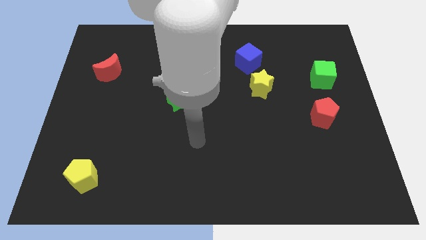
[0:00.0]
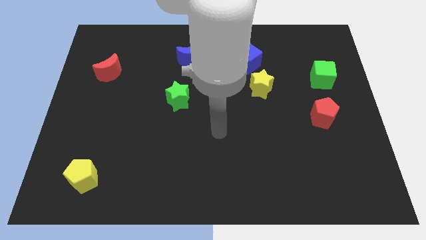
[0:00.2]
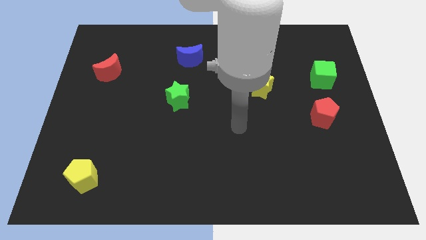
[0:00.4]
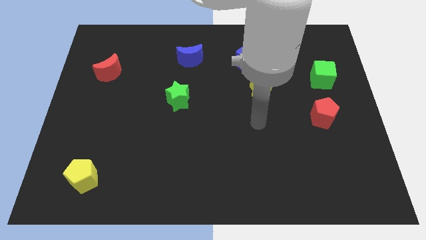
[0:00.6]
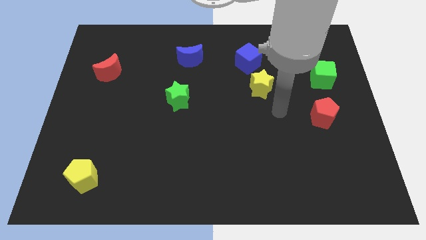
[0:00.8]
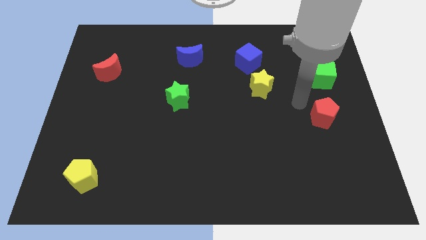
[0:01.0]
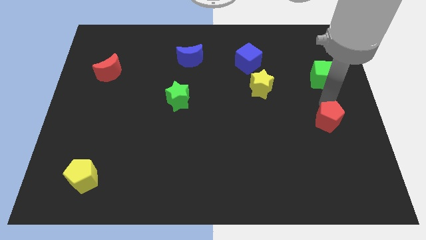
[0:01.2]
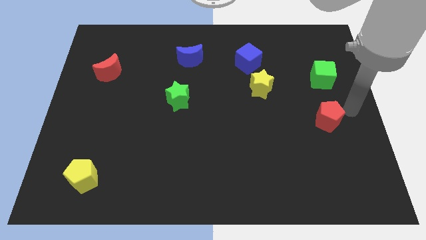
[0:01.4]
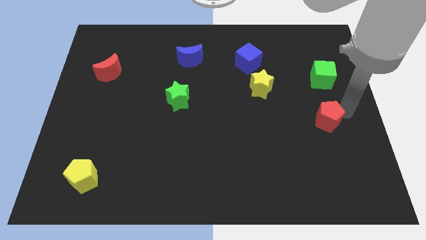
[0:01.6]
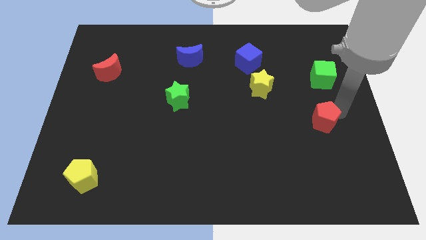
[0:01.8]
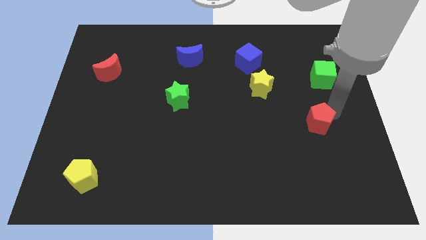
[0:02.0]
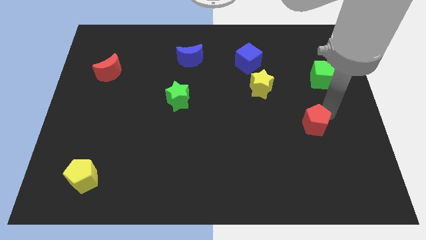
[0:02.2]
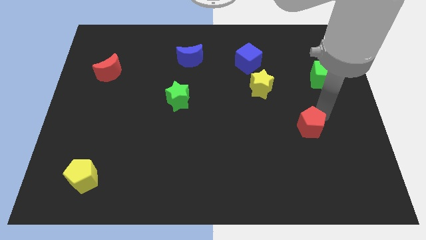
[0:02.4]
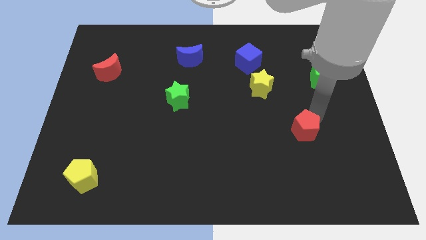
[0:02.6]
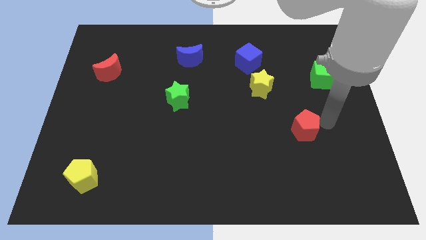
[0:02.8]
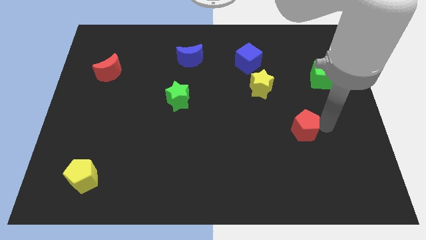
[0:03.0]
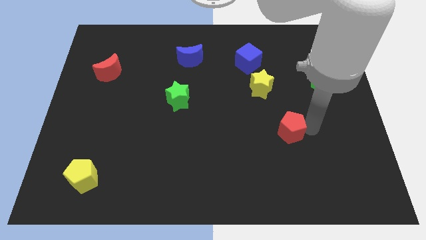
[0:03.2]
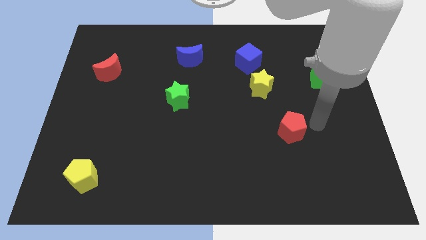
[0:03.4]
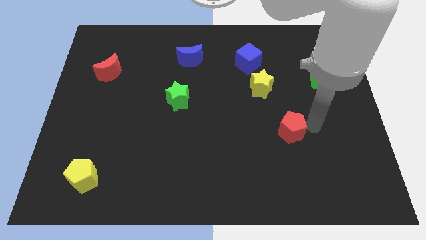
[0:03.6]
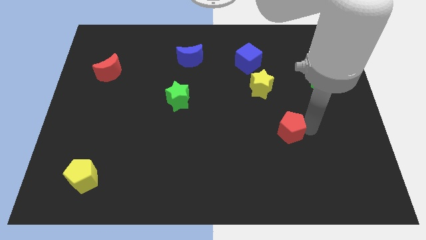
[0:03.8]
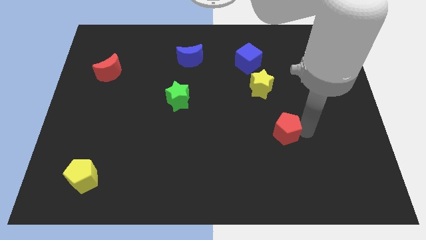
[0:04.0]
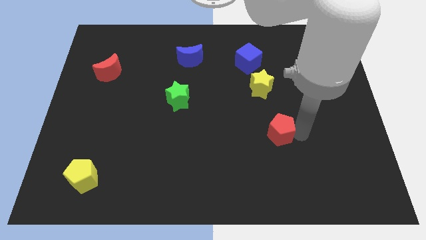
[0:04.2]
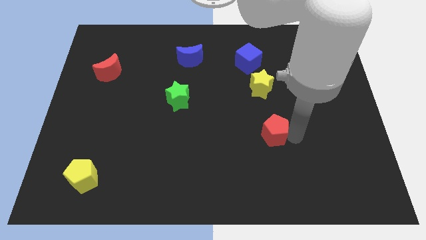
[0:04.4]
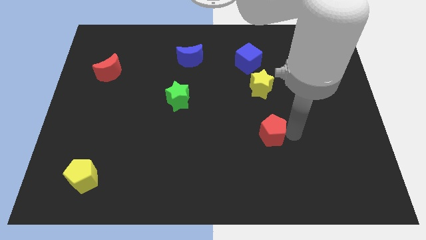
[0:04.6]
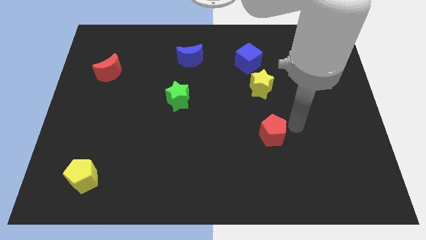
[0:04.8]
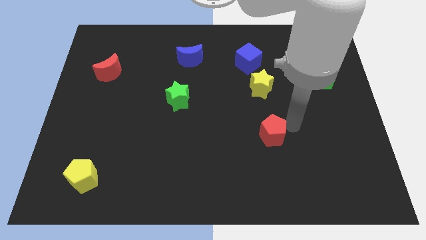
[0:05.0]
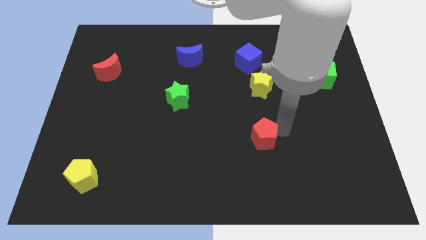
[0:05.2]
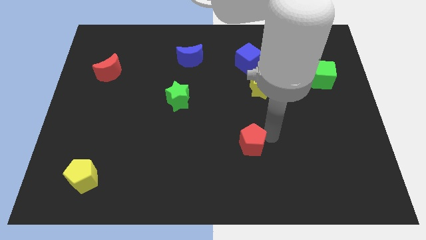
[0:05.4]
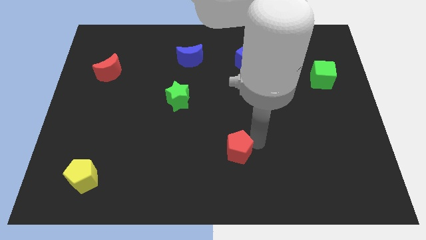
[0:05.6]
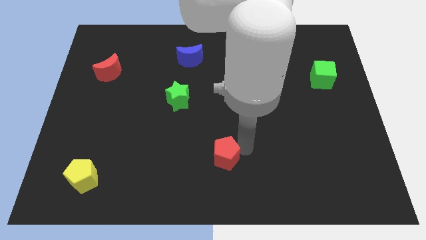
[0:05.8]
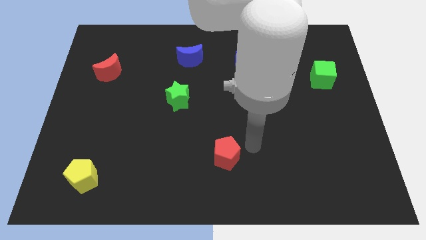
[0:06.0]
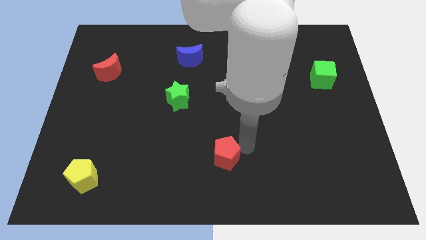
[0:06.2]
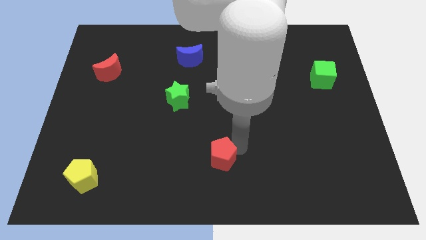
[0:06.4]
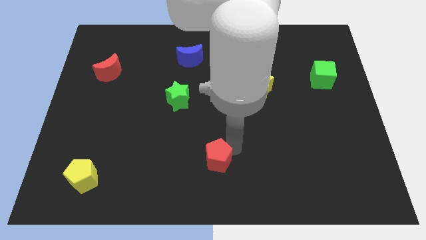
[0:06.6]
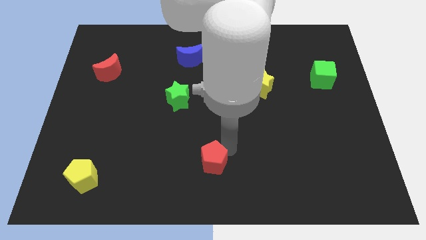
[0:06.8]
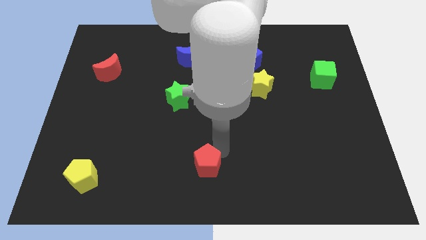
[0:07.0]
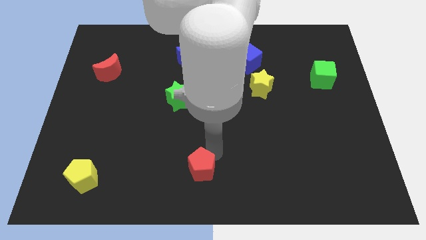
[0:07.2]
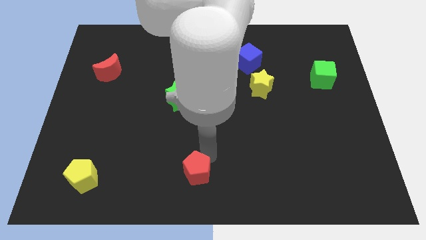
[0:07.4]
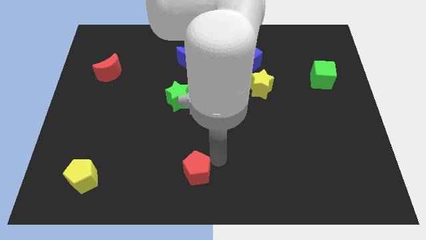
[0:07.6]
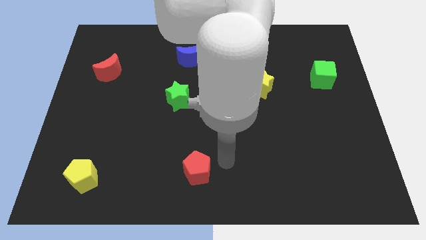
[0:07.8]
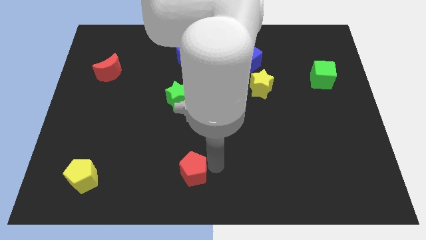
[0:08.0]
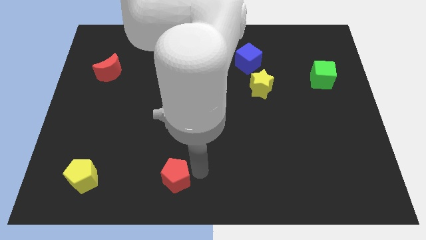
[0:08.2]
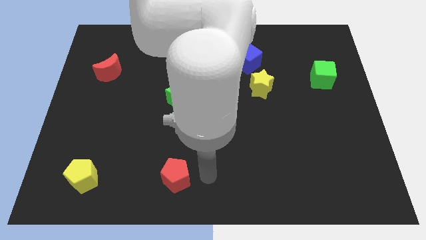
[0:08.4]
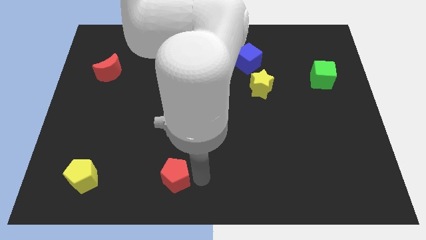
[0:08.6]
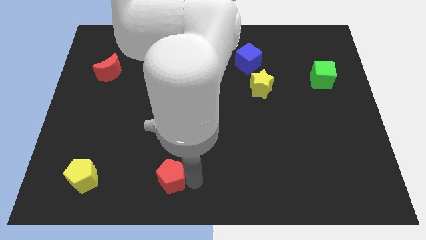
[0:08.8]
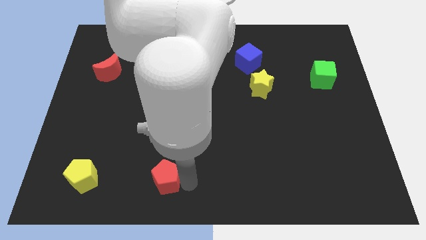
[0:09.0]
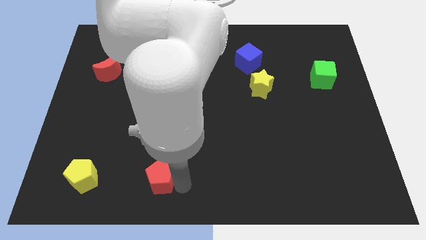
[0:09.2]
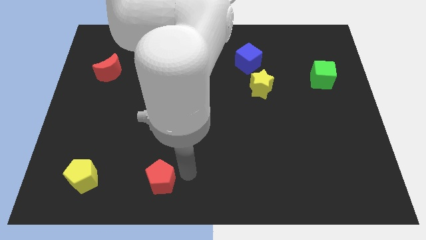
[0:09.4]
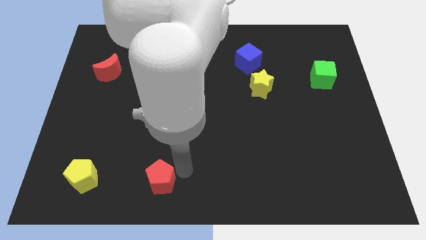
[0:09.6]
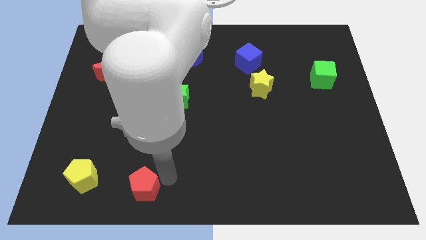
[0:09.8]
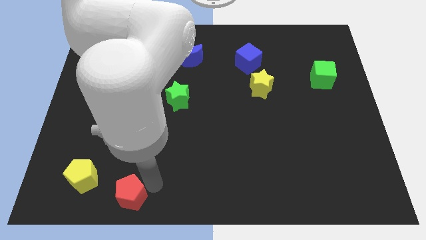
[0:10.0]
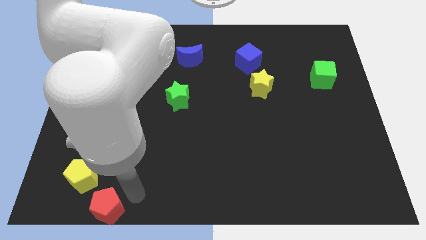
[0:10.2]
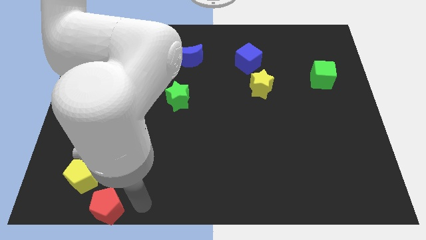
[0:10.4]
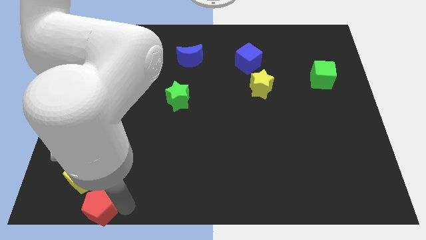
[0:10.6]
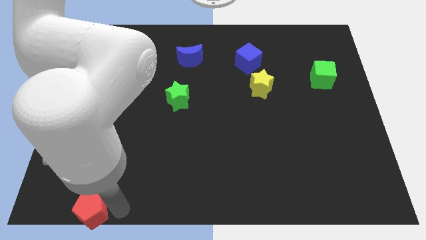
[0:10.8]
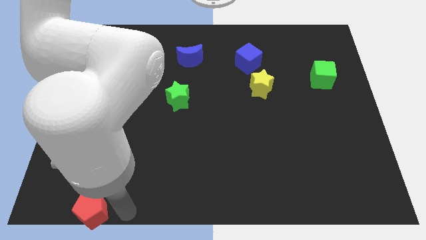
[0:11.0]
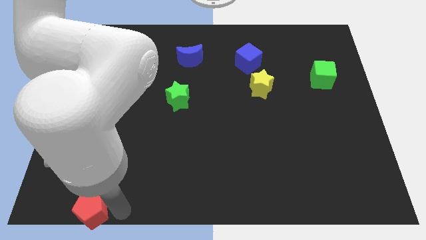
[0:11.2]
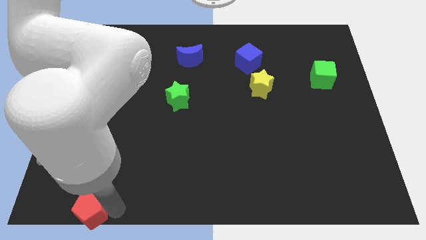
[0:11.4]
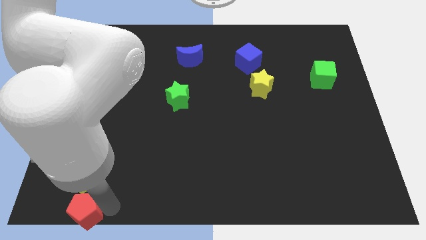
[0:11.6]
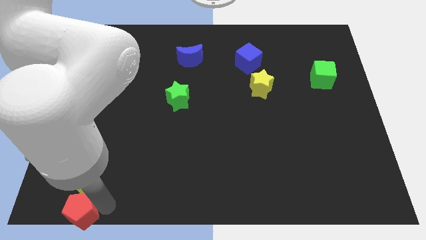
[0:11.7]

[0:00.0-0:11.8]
put the red pentagon to the bottom left of the board

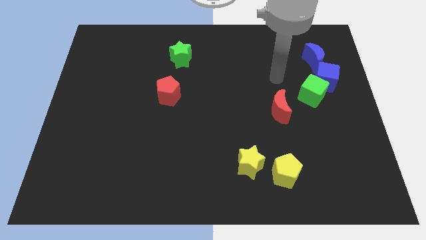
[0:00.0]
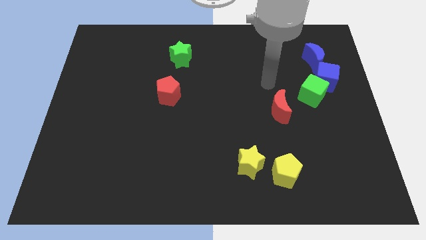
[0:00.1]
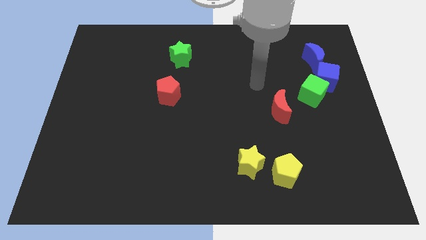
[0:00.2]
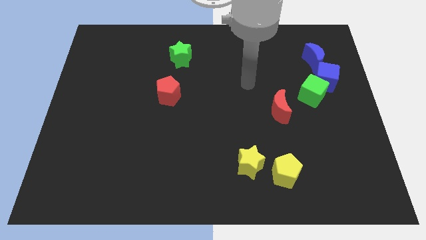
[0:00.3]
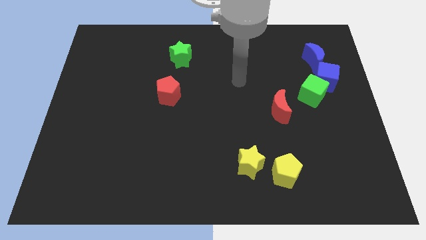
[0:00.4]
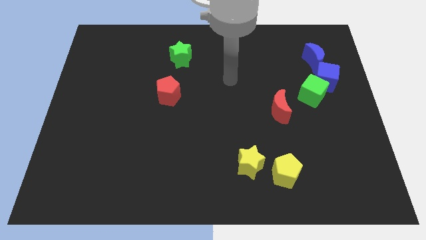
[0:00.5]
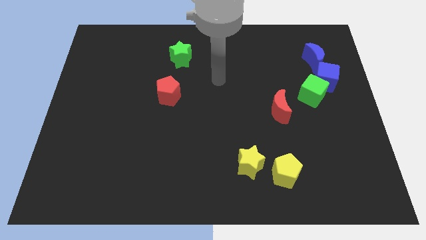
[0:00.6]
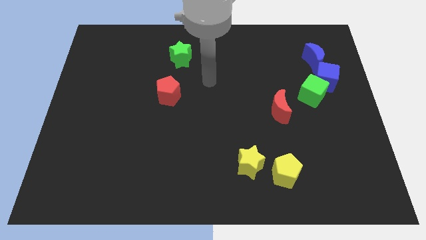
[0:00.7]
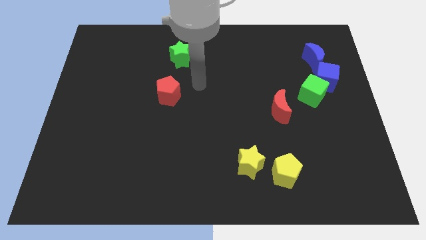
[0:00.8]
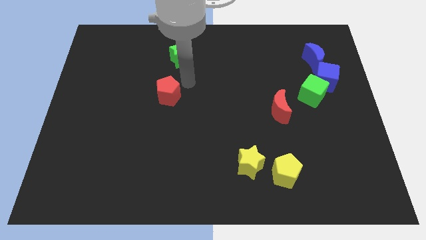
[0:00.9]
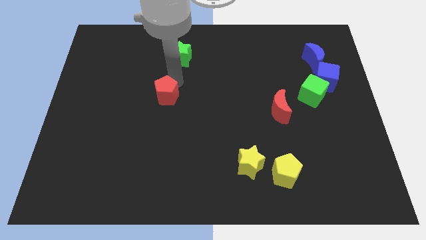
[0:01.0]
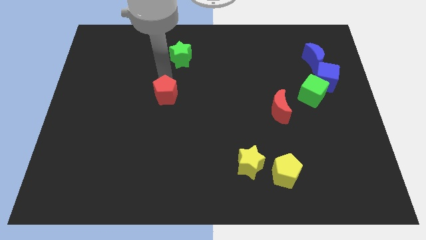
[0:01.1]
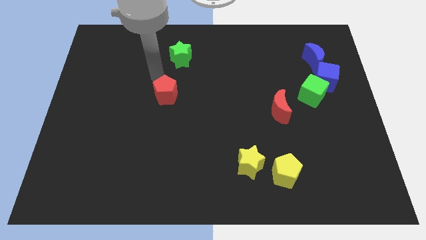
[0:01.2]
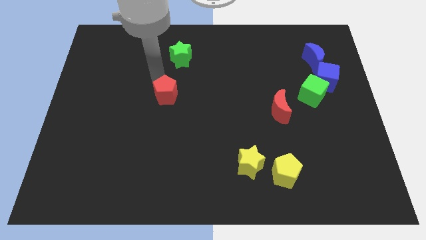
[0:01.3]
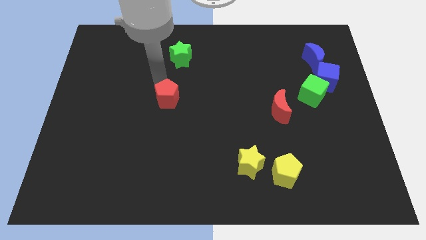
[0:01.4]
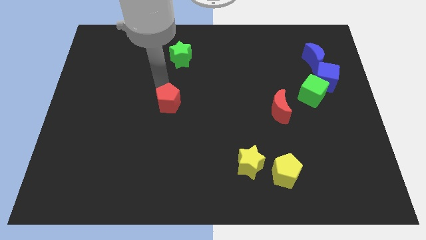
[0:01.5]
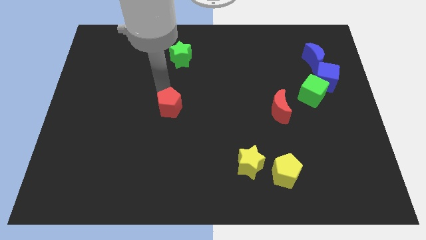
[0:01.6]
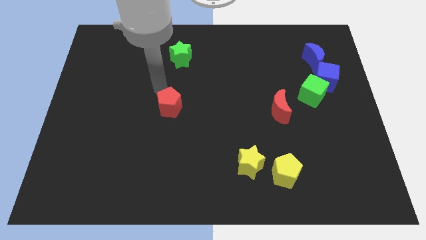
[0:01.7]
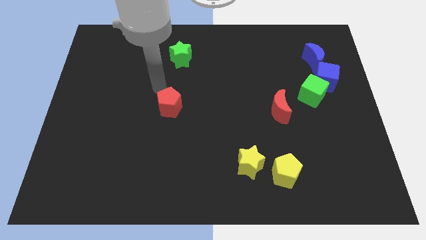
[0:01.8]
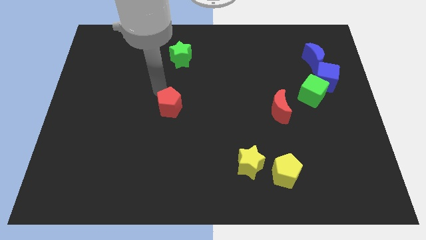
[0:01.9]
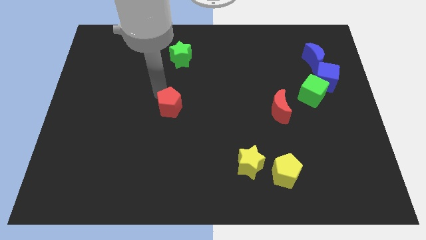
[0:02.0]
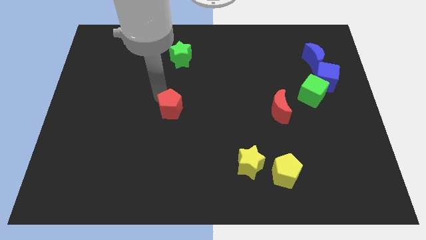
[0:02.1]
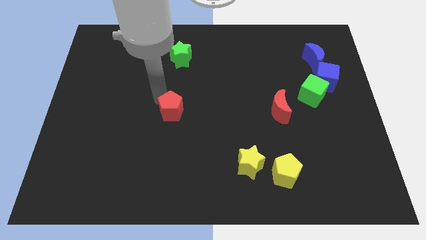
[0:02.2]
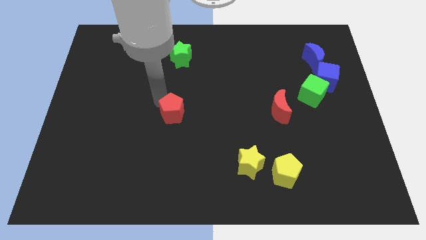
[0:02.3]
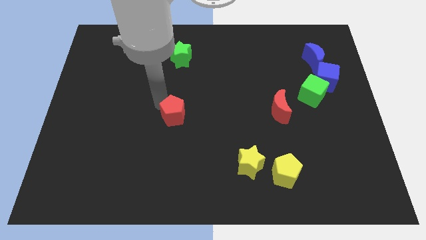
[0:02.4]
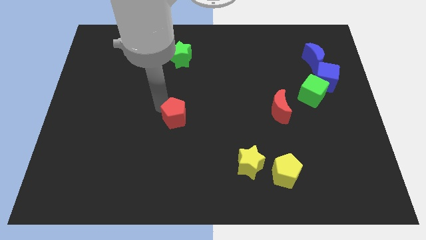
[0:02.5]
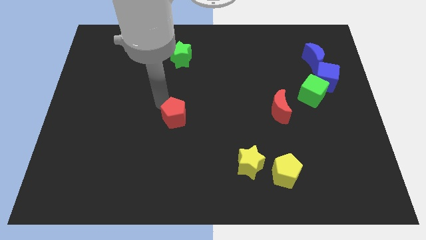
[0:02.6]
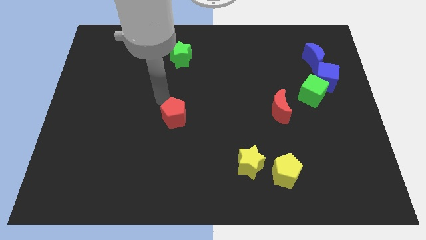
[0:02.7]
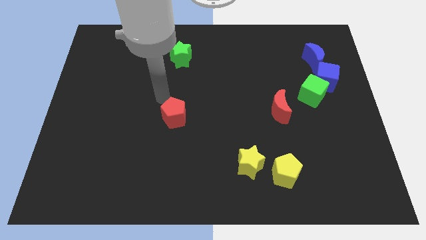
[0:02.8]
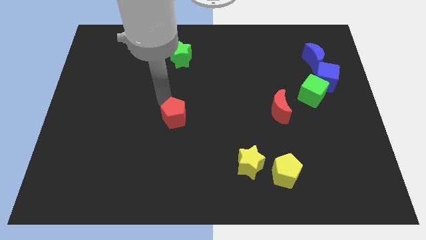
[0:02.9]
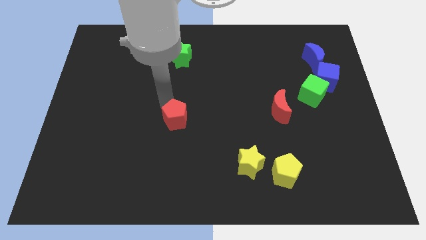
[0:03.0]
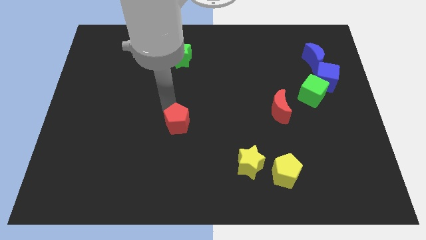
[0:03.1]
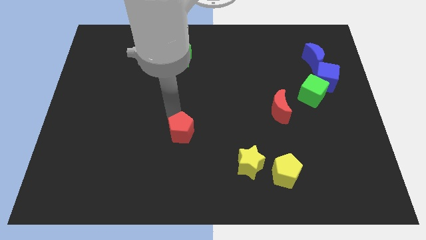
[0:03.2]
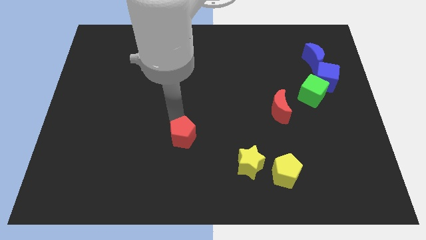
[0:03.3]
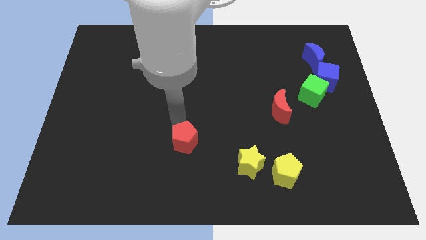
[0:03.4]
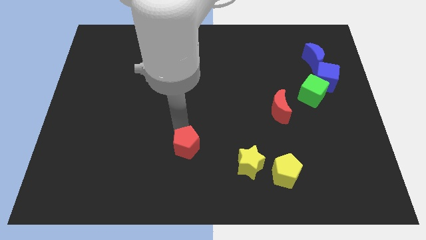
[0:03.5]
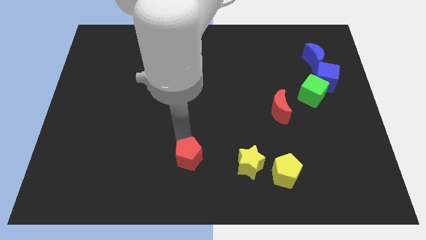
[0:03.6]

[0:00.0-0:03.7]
slide the red pentagon to the bottom
